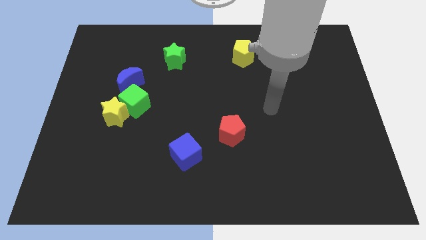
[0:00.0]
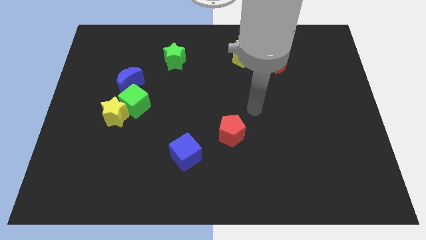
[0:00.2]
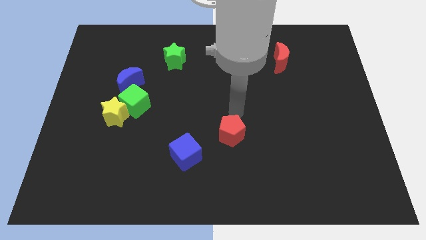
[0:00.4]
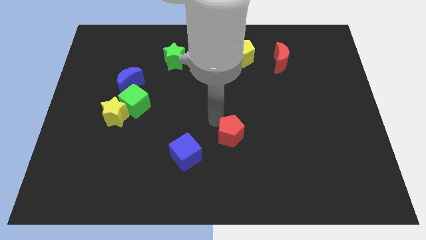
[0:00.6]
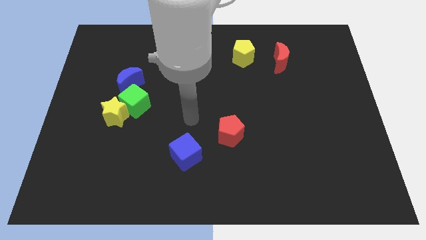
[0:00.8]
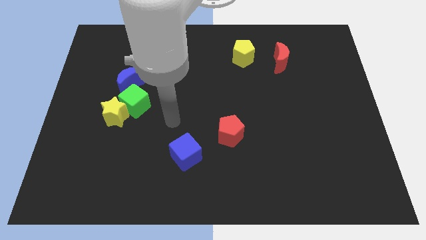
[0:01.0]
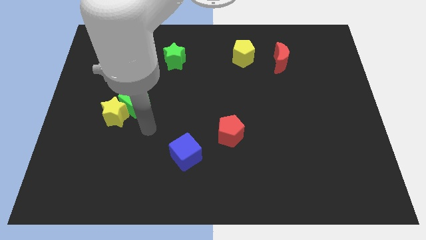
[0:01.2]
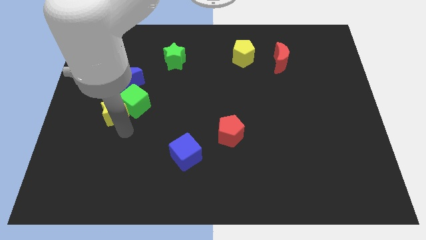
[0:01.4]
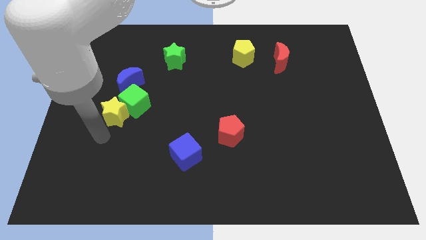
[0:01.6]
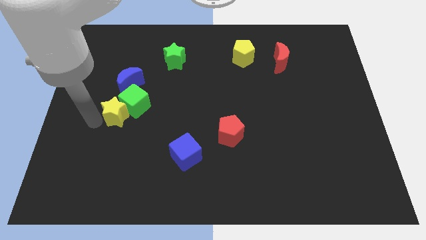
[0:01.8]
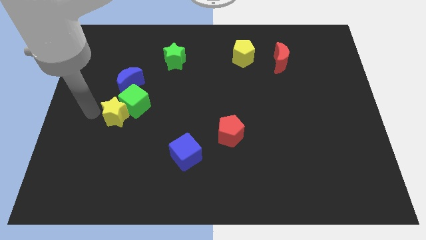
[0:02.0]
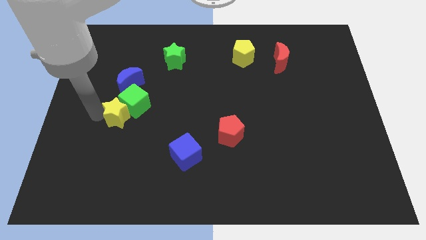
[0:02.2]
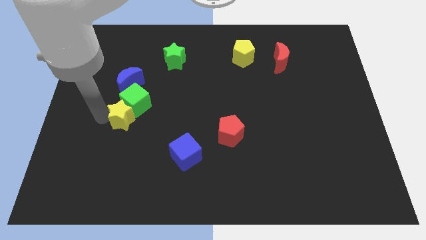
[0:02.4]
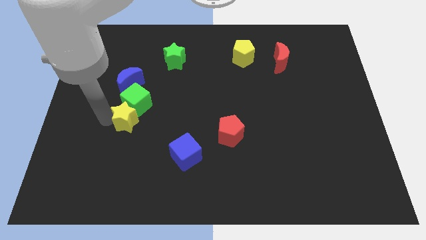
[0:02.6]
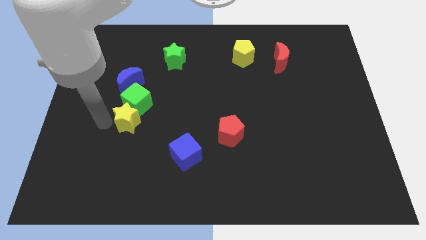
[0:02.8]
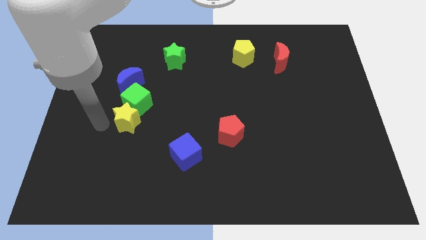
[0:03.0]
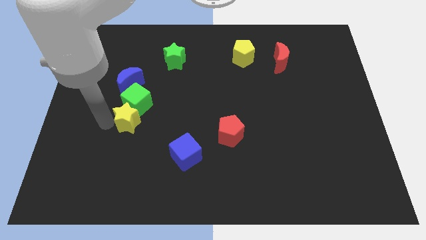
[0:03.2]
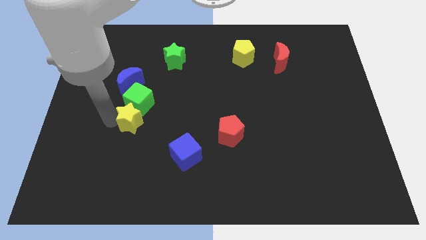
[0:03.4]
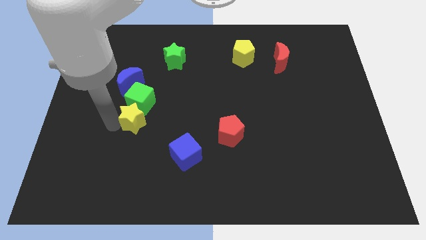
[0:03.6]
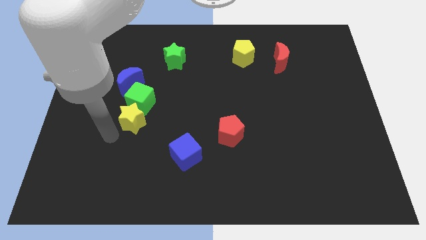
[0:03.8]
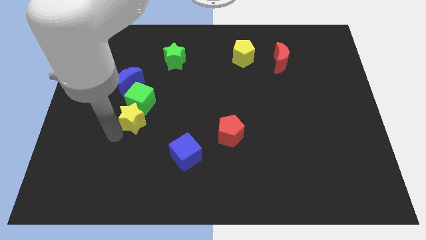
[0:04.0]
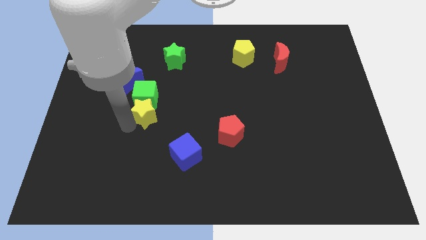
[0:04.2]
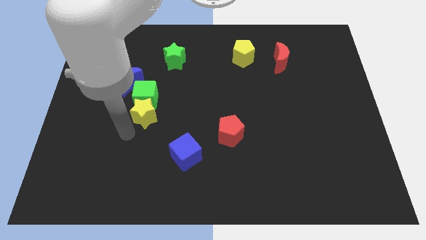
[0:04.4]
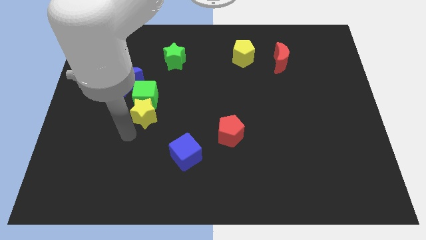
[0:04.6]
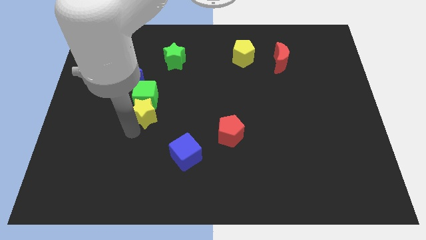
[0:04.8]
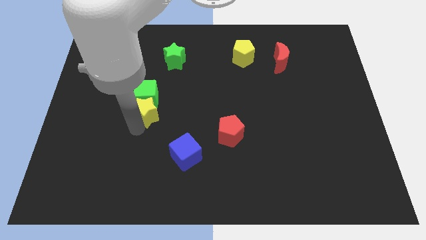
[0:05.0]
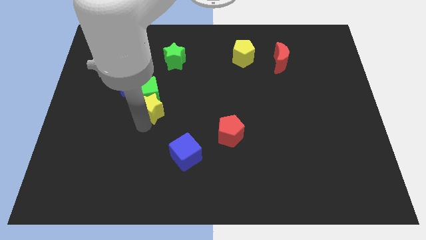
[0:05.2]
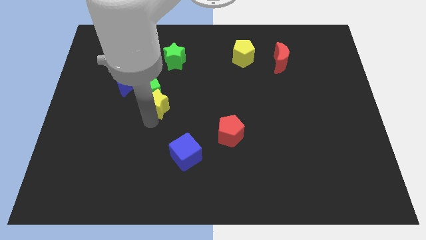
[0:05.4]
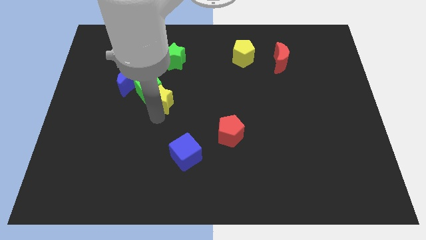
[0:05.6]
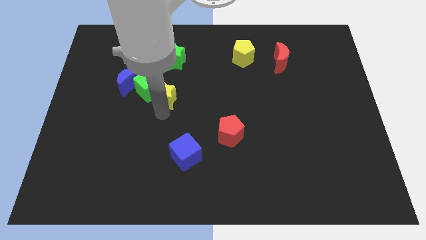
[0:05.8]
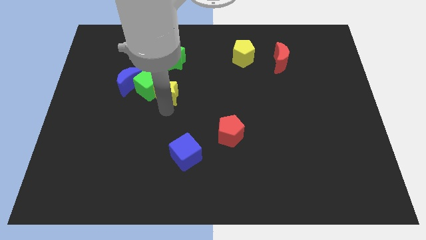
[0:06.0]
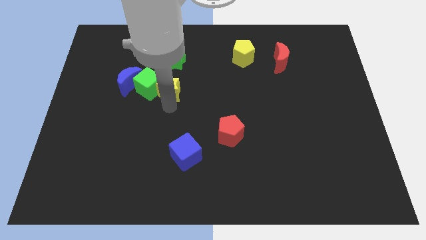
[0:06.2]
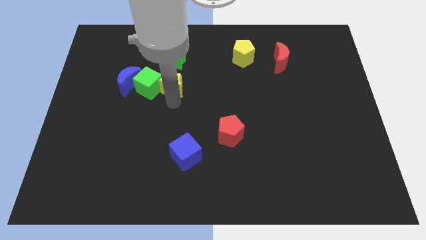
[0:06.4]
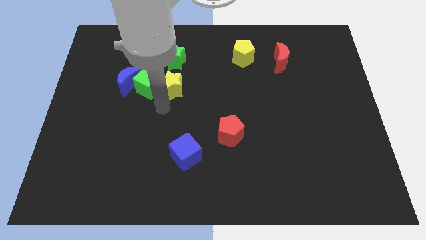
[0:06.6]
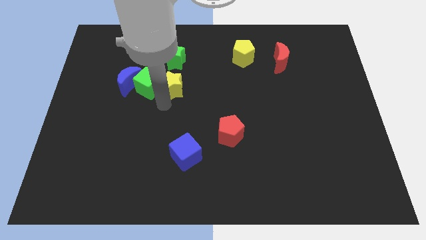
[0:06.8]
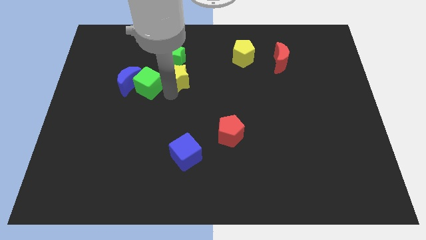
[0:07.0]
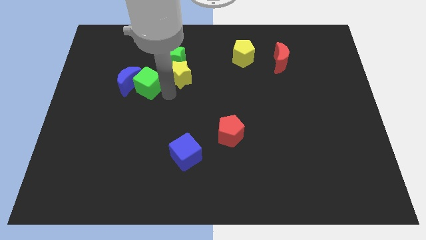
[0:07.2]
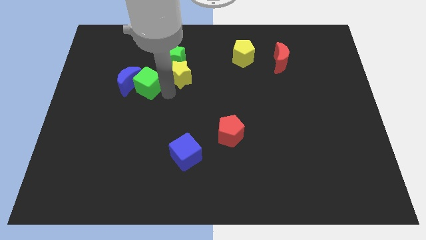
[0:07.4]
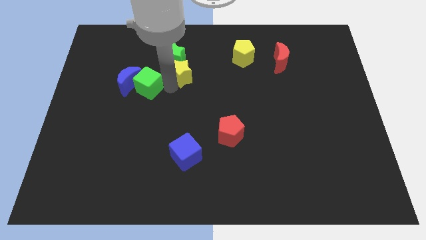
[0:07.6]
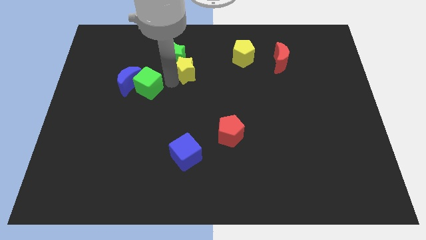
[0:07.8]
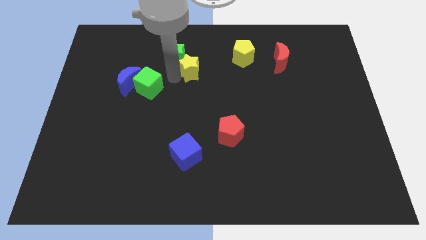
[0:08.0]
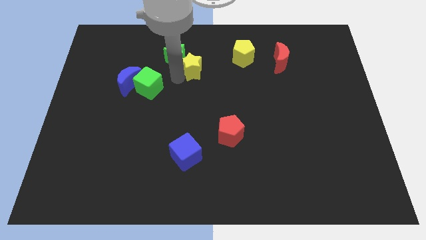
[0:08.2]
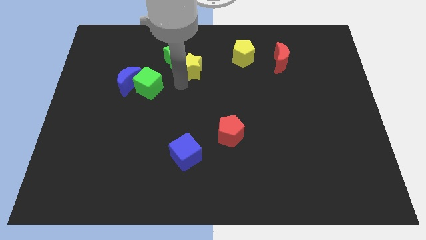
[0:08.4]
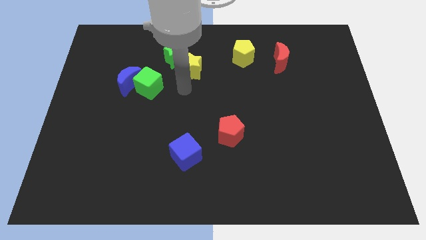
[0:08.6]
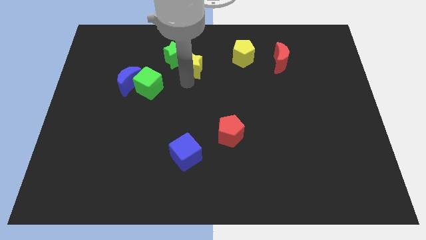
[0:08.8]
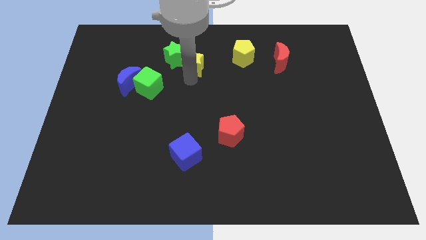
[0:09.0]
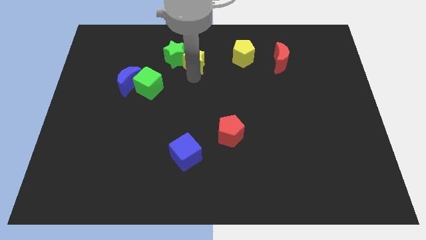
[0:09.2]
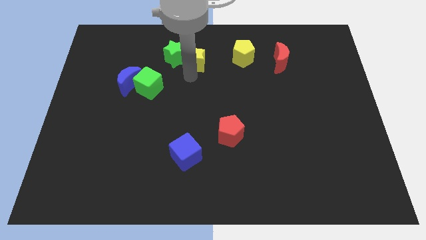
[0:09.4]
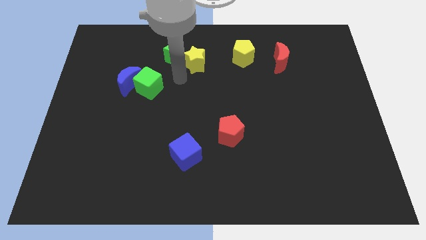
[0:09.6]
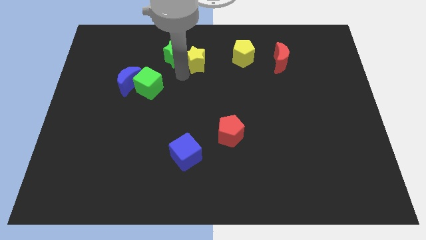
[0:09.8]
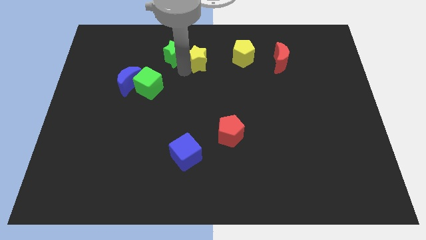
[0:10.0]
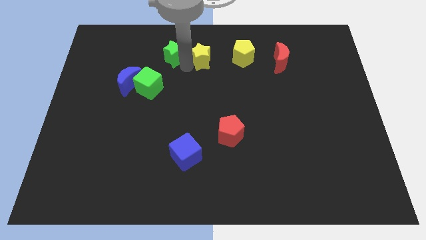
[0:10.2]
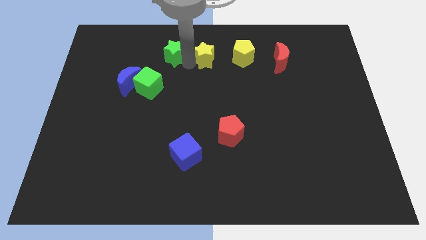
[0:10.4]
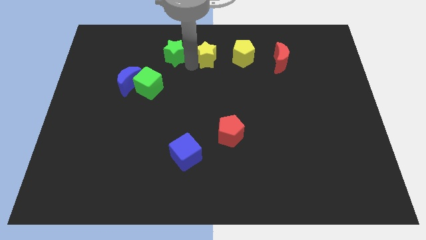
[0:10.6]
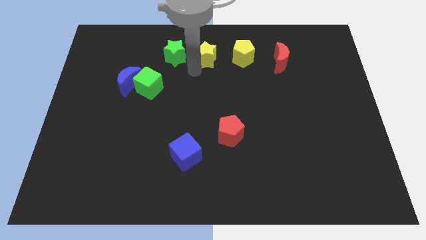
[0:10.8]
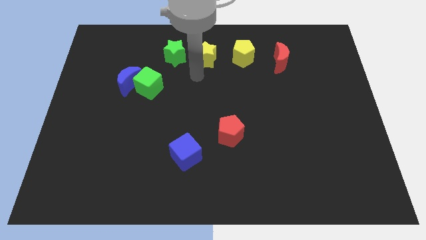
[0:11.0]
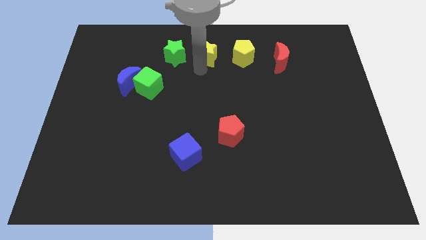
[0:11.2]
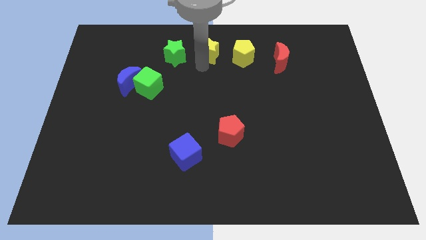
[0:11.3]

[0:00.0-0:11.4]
put the yellow star to the top side

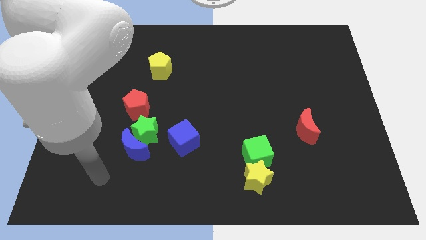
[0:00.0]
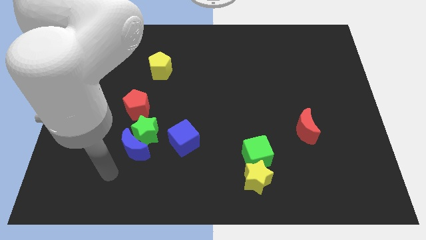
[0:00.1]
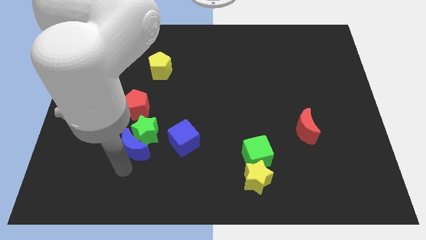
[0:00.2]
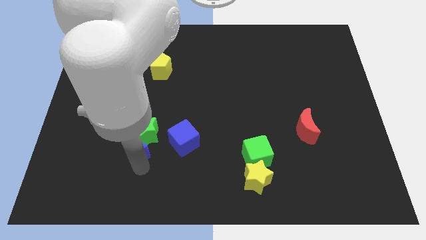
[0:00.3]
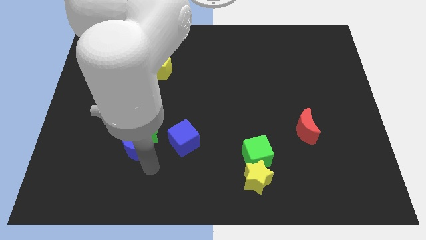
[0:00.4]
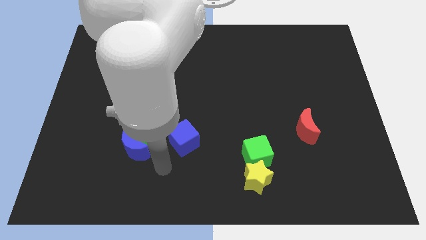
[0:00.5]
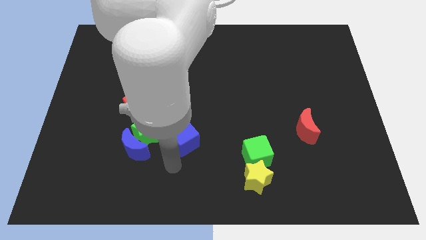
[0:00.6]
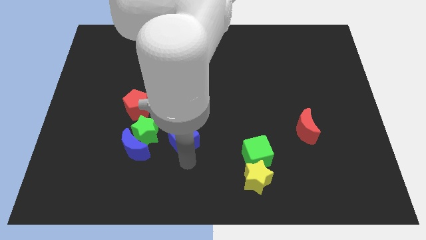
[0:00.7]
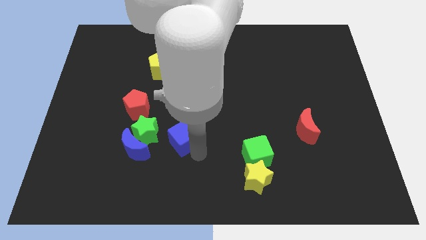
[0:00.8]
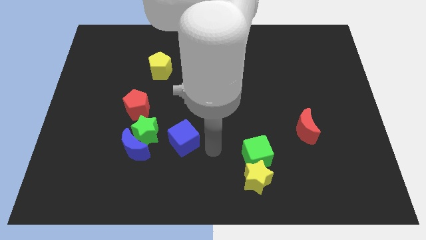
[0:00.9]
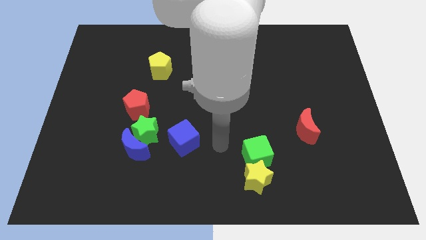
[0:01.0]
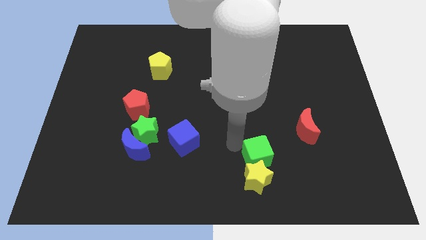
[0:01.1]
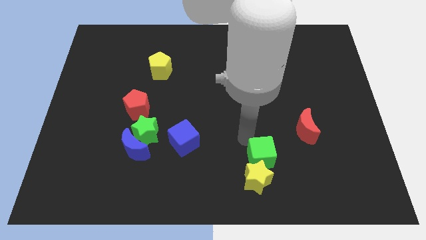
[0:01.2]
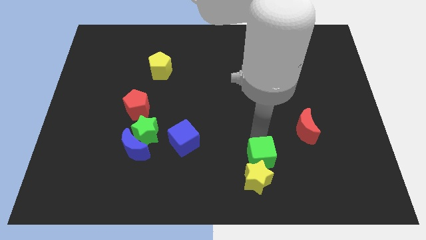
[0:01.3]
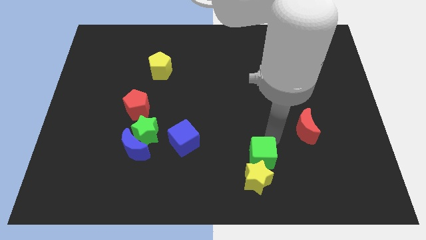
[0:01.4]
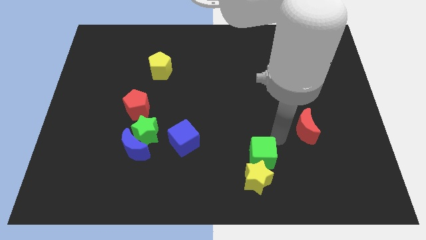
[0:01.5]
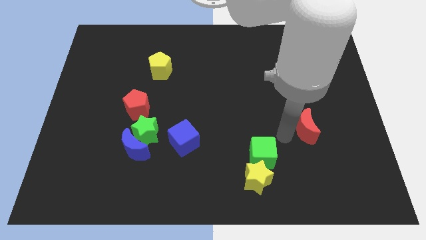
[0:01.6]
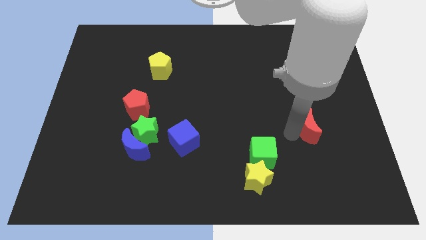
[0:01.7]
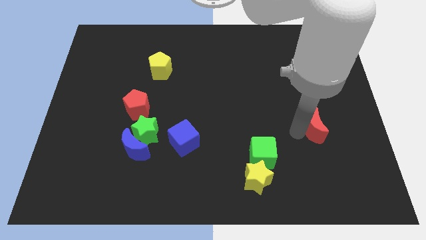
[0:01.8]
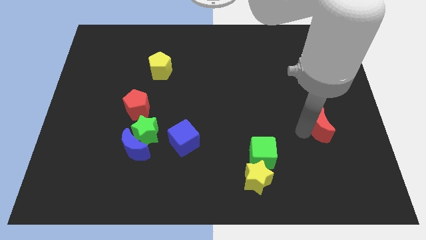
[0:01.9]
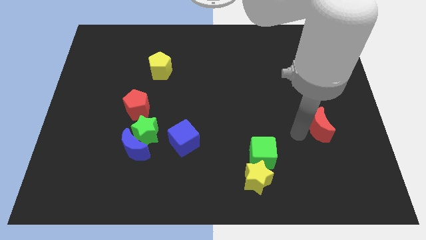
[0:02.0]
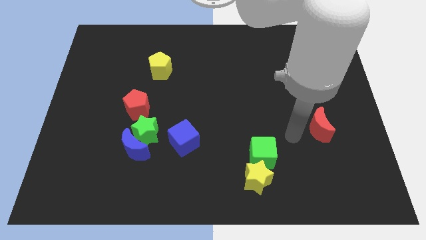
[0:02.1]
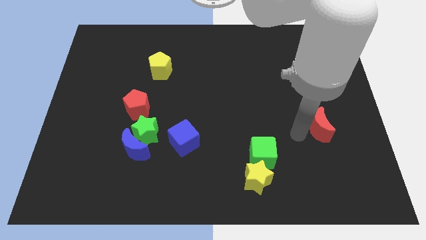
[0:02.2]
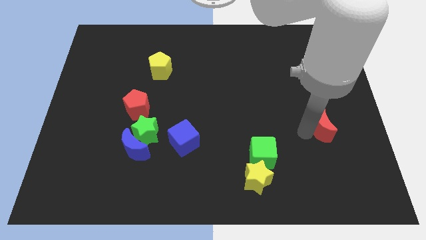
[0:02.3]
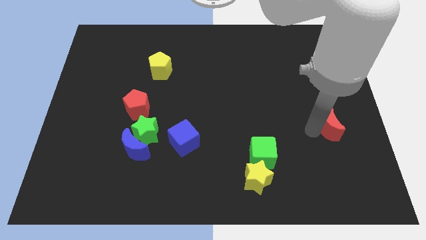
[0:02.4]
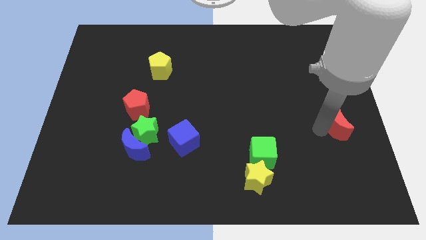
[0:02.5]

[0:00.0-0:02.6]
put the red moon to the center right
